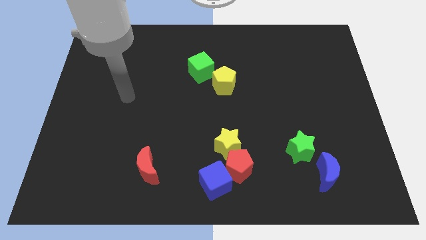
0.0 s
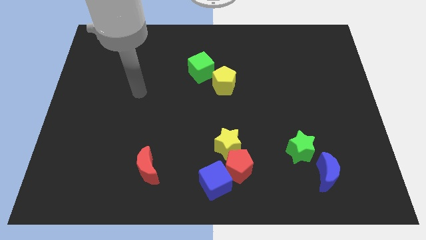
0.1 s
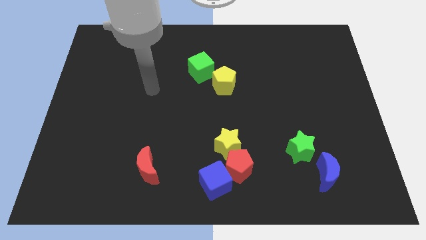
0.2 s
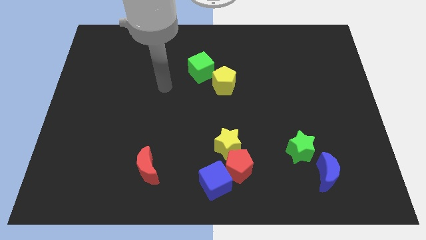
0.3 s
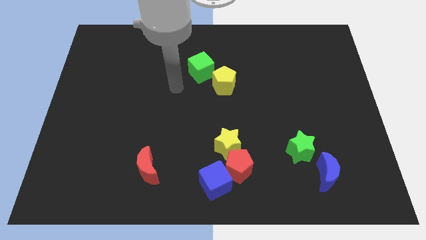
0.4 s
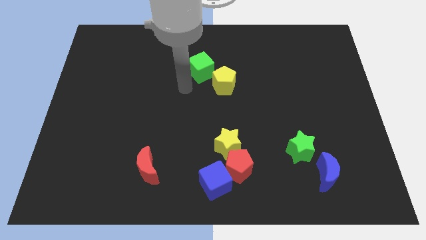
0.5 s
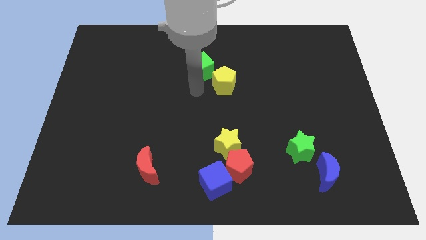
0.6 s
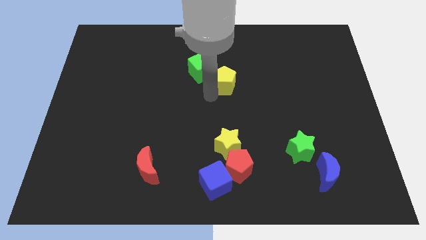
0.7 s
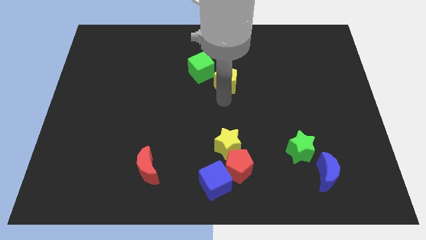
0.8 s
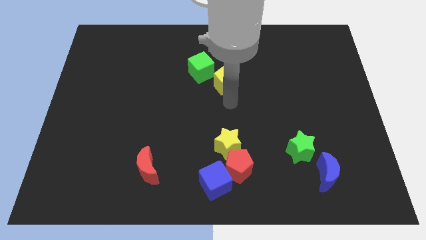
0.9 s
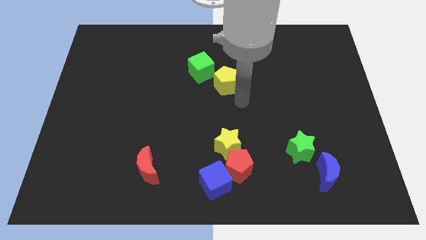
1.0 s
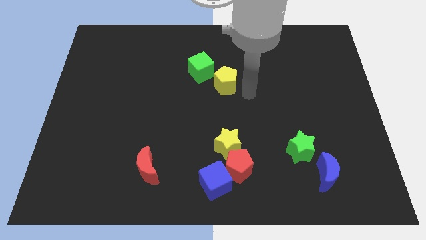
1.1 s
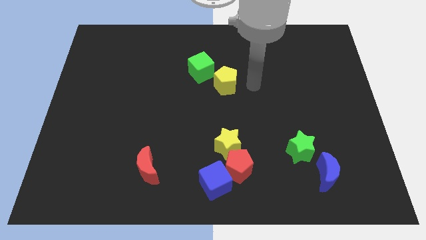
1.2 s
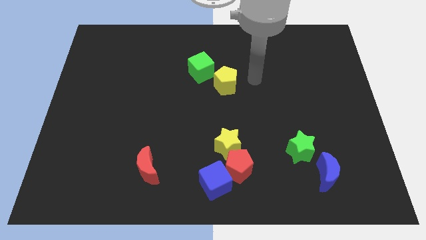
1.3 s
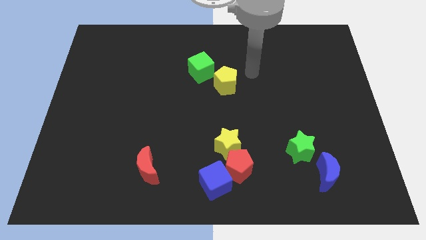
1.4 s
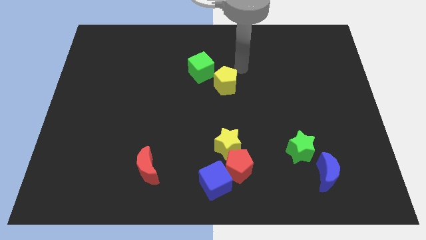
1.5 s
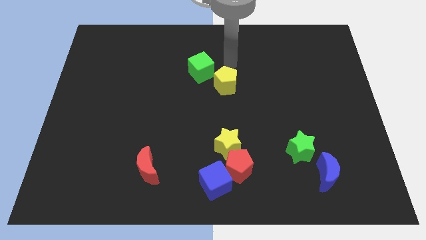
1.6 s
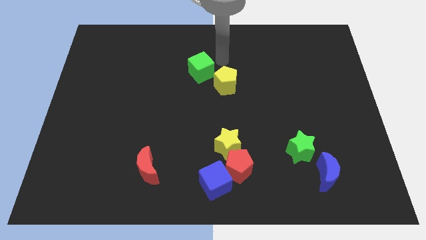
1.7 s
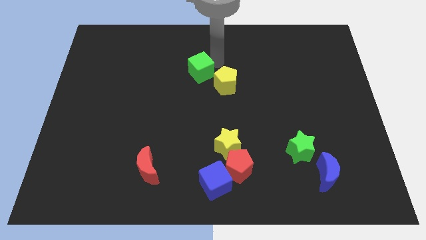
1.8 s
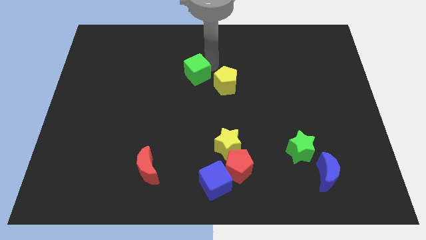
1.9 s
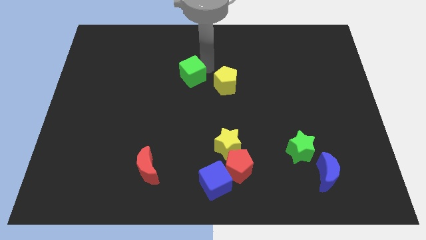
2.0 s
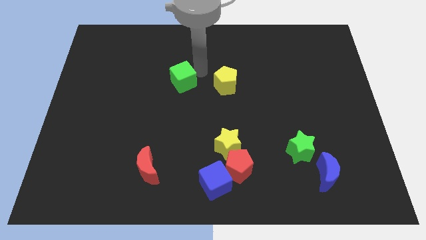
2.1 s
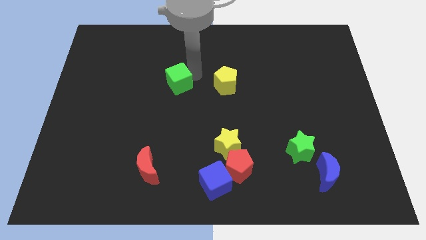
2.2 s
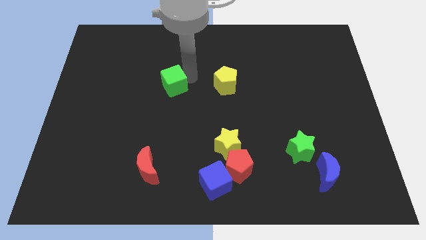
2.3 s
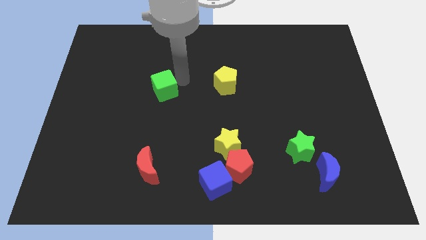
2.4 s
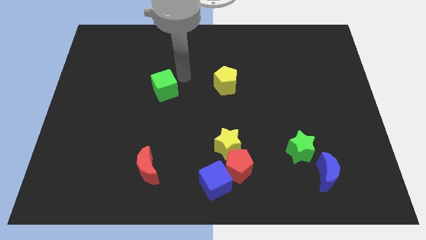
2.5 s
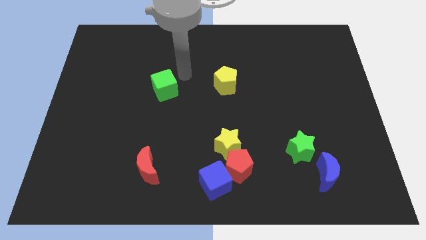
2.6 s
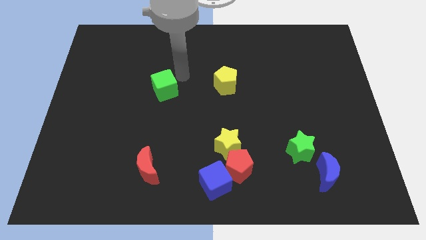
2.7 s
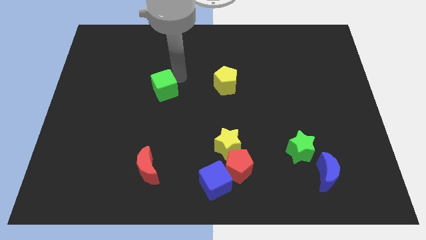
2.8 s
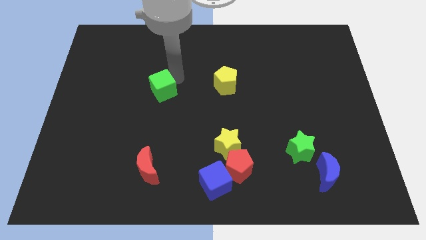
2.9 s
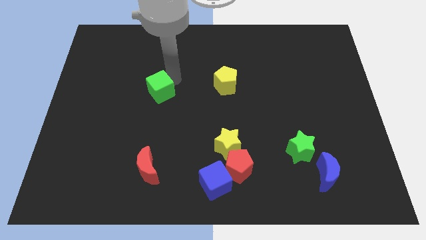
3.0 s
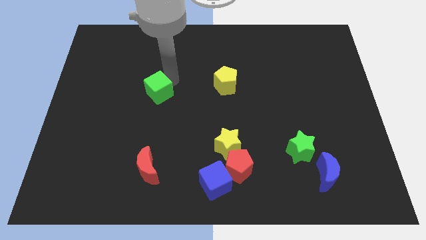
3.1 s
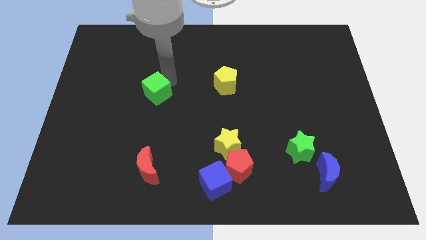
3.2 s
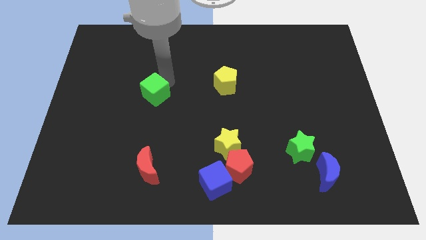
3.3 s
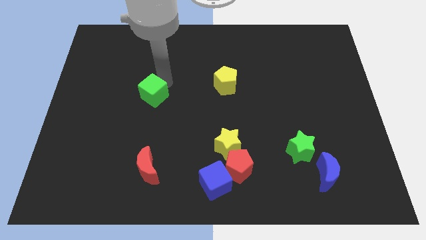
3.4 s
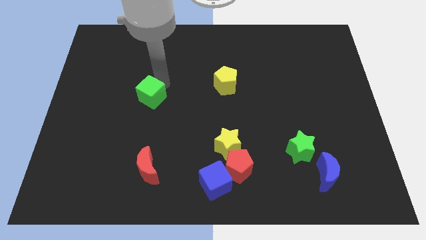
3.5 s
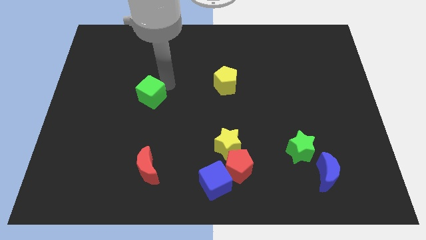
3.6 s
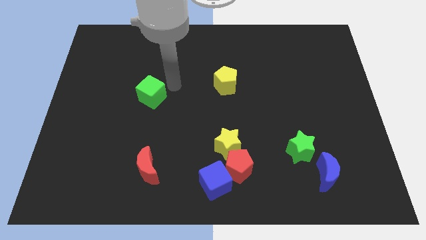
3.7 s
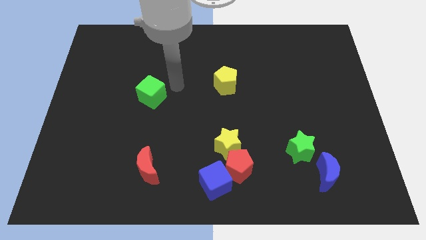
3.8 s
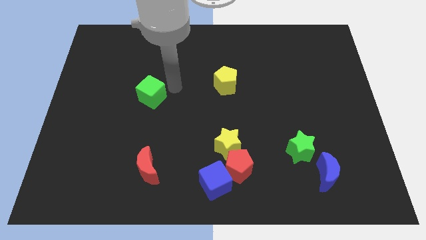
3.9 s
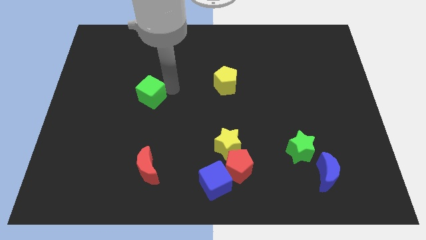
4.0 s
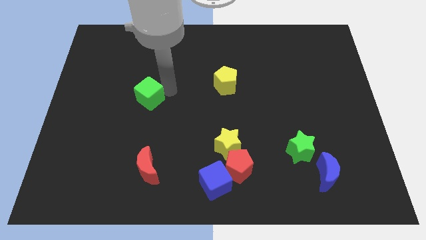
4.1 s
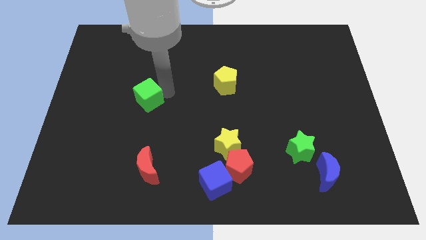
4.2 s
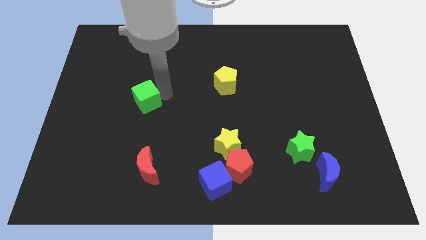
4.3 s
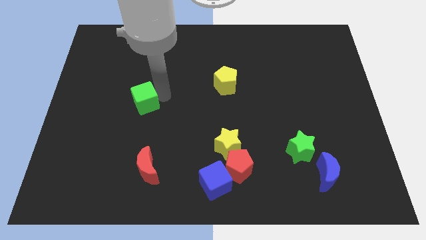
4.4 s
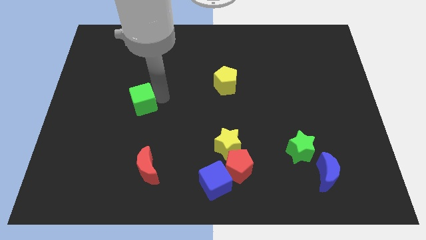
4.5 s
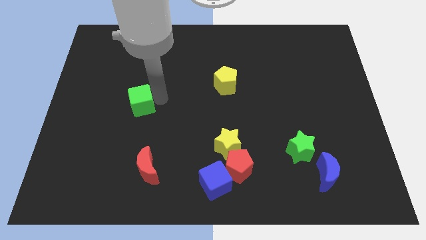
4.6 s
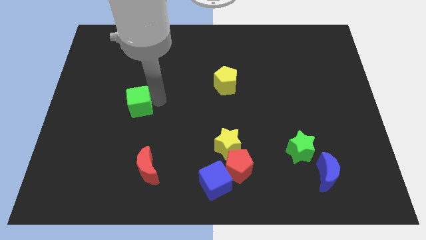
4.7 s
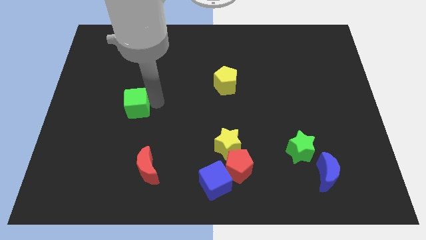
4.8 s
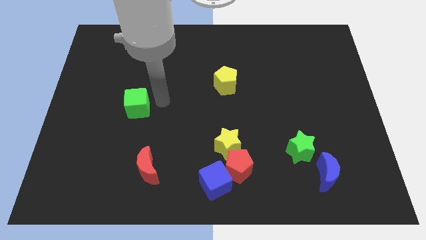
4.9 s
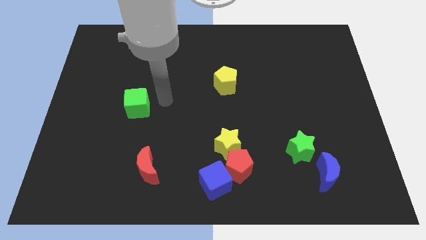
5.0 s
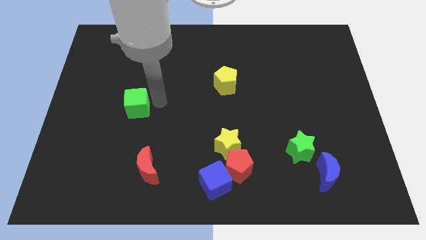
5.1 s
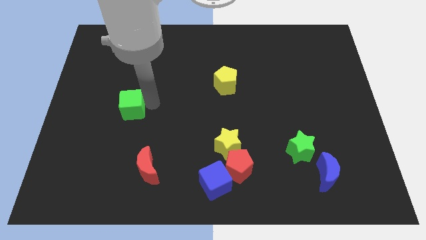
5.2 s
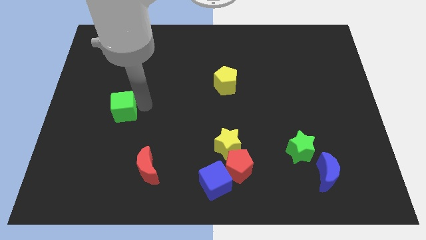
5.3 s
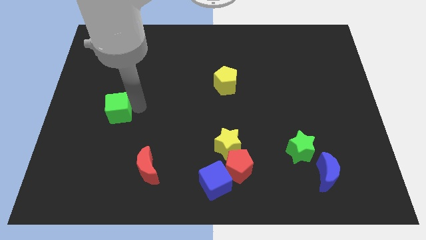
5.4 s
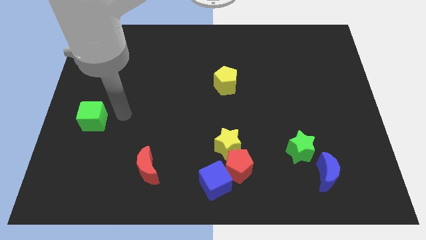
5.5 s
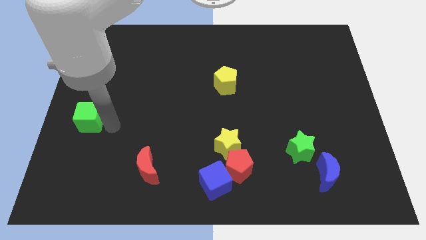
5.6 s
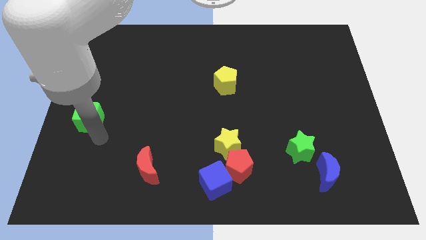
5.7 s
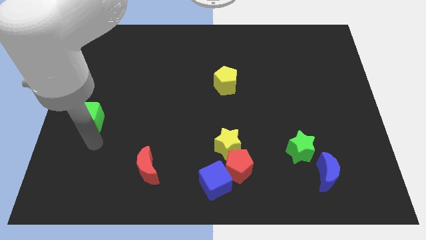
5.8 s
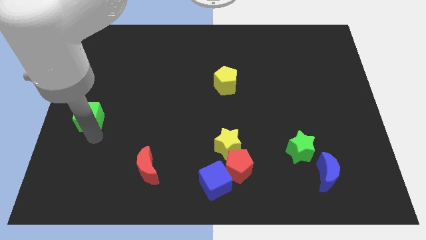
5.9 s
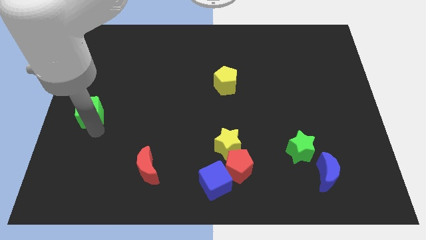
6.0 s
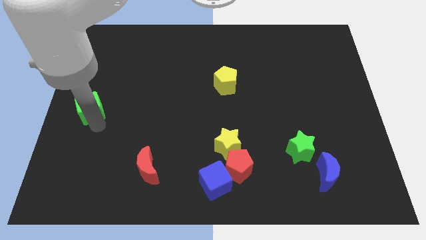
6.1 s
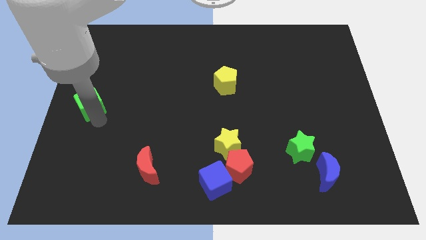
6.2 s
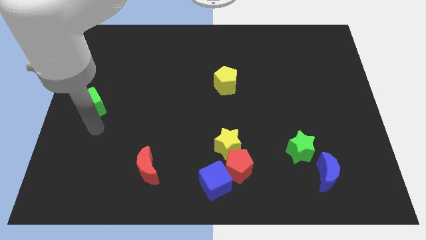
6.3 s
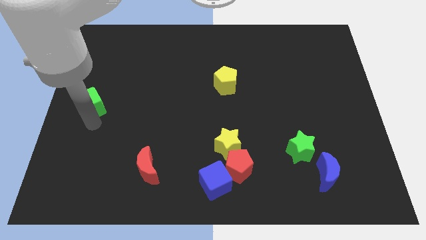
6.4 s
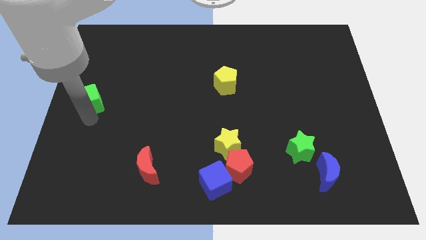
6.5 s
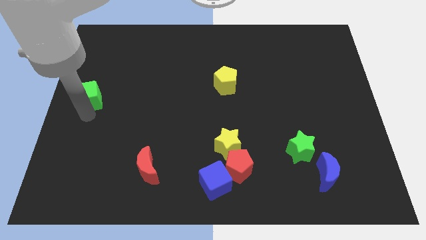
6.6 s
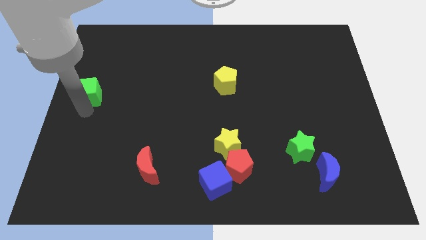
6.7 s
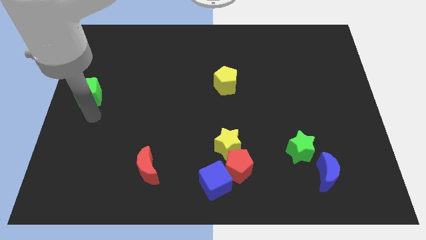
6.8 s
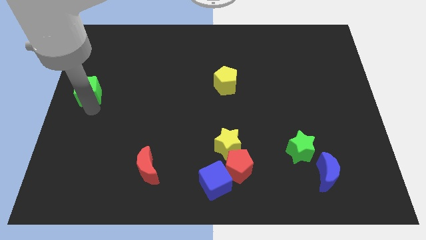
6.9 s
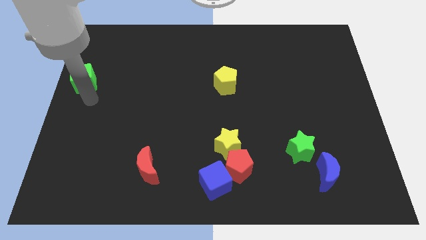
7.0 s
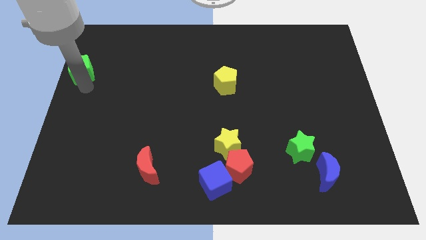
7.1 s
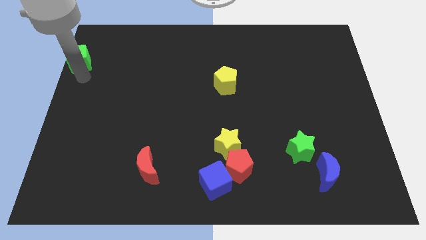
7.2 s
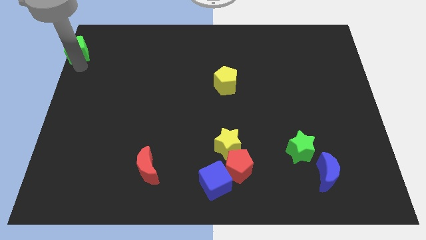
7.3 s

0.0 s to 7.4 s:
put the green cube to the top left

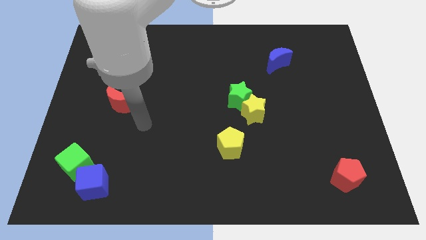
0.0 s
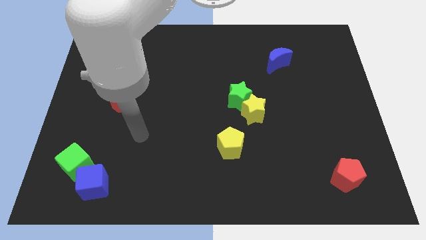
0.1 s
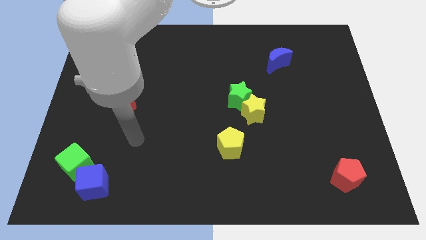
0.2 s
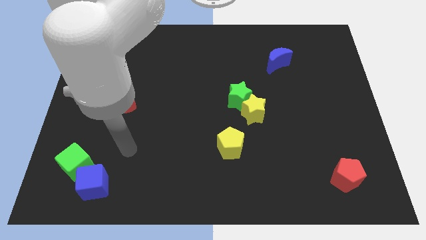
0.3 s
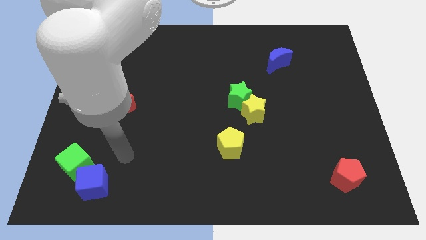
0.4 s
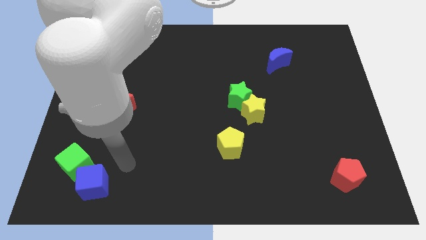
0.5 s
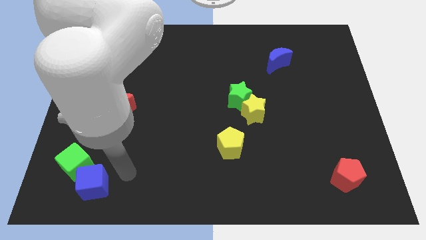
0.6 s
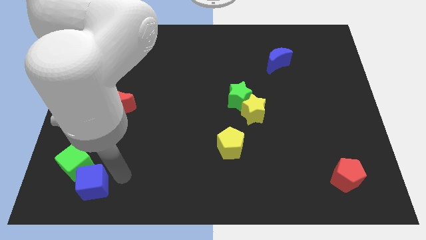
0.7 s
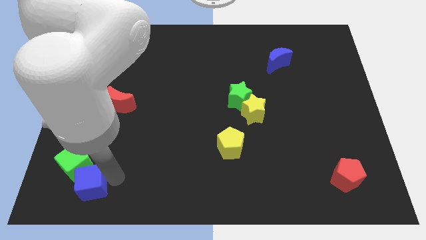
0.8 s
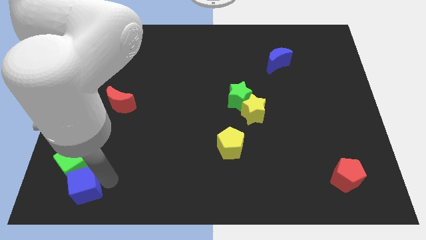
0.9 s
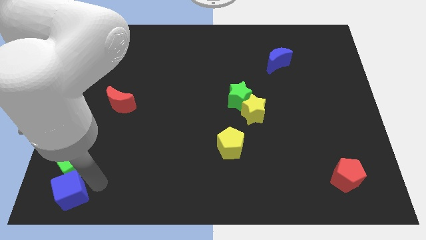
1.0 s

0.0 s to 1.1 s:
put the blue cube to the bottom left of the board
